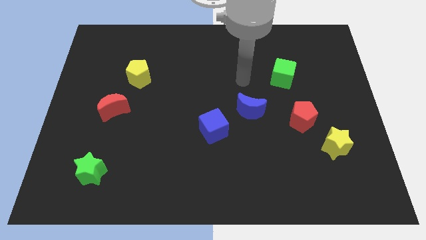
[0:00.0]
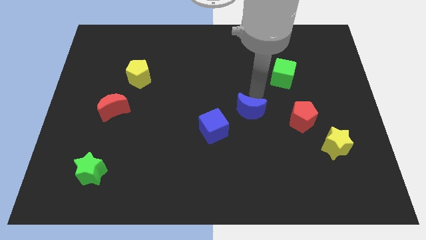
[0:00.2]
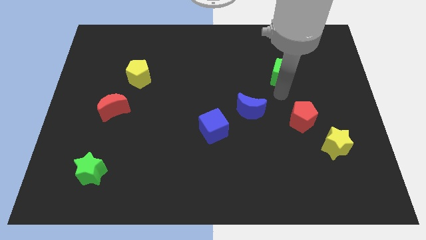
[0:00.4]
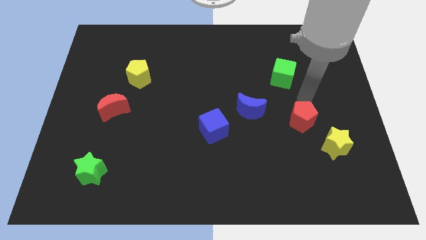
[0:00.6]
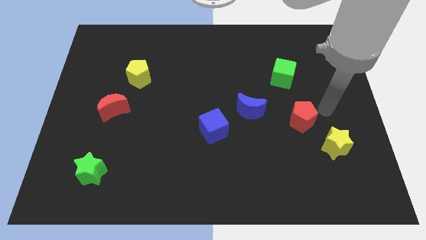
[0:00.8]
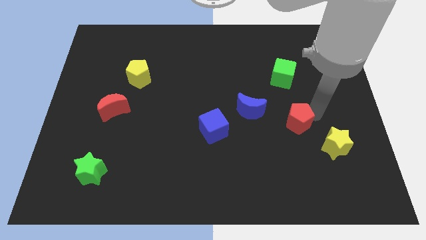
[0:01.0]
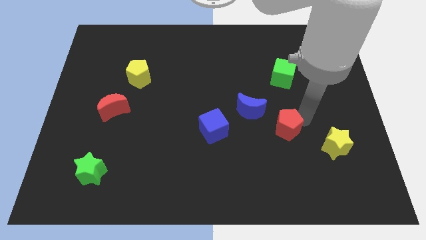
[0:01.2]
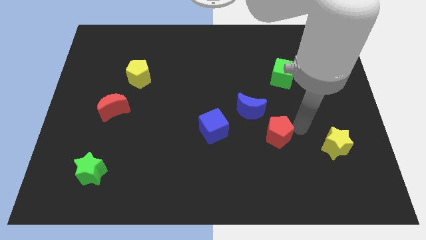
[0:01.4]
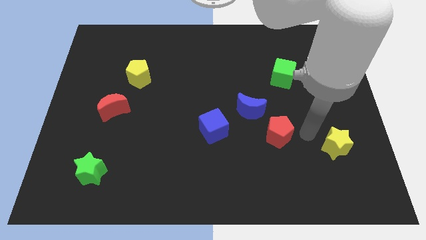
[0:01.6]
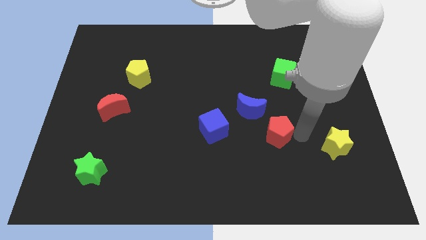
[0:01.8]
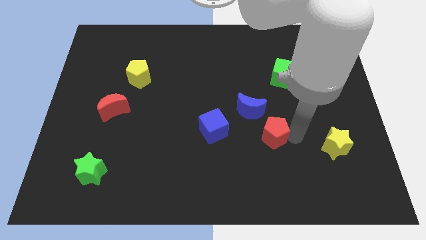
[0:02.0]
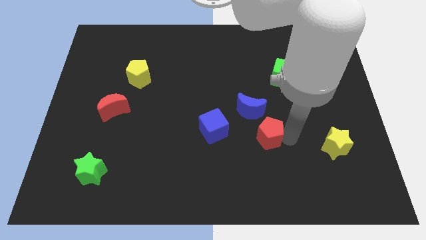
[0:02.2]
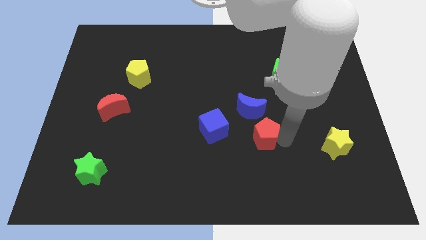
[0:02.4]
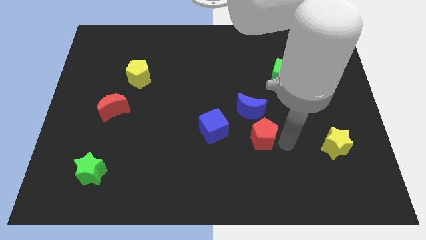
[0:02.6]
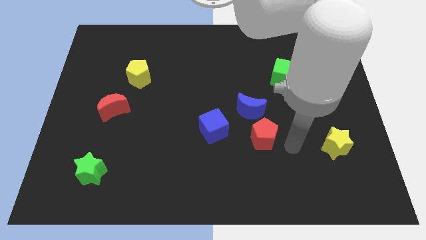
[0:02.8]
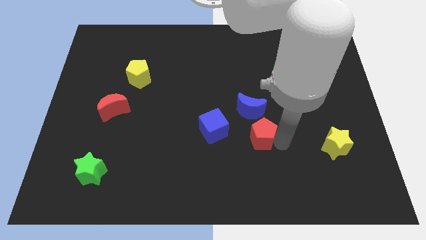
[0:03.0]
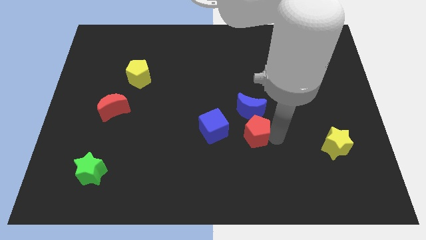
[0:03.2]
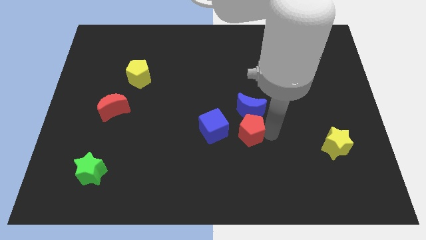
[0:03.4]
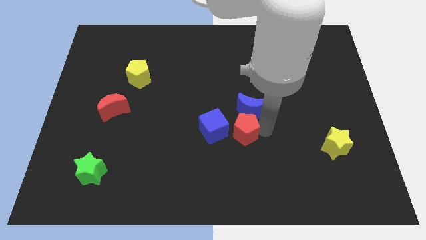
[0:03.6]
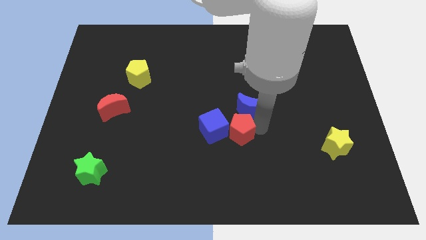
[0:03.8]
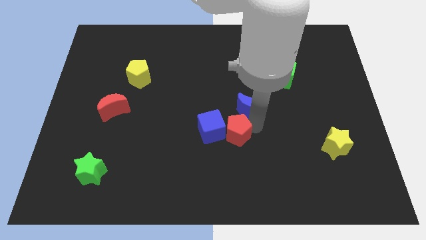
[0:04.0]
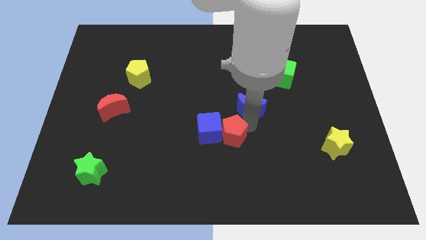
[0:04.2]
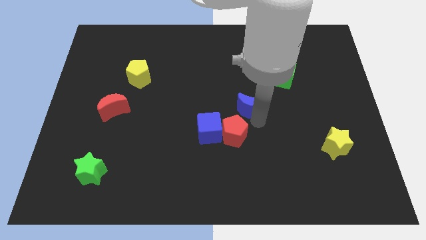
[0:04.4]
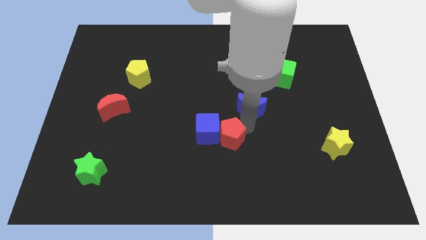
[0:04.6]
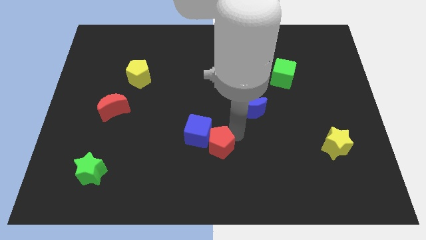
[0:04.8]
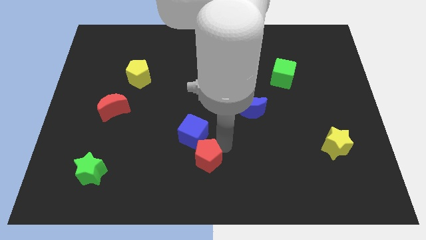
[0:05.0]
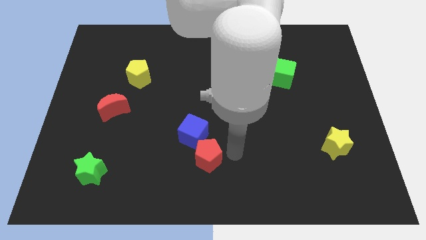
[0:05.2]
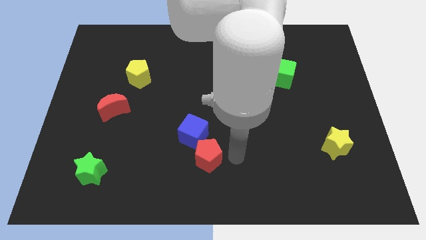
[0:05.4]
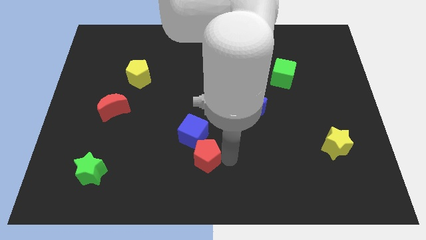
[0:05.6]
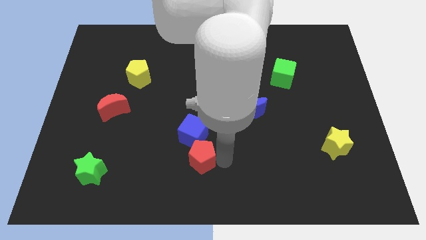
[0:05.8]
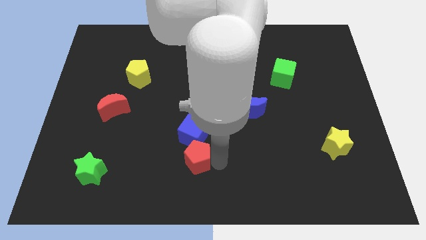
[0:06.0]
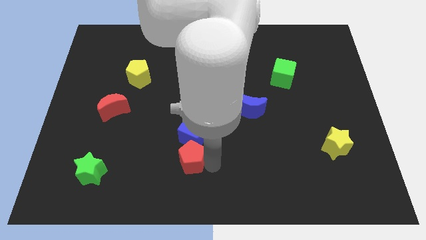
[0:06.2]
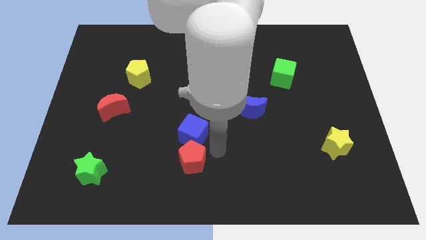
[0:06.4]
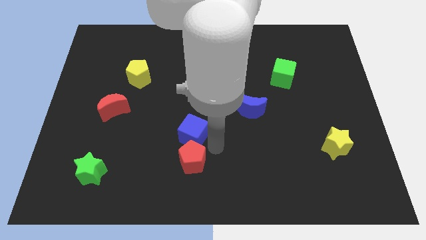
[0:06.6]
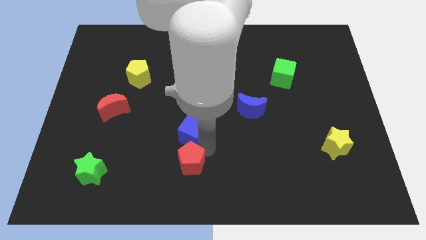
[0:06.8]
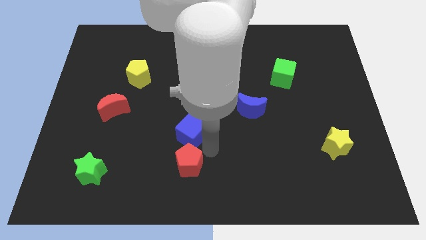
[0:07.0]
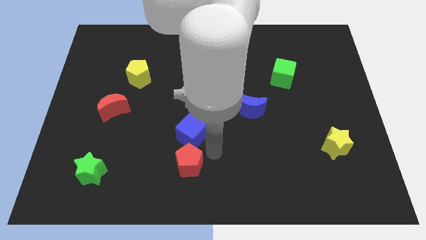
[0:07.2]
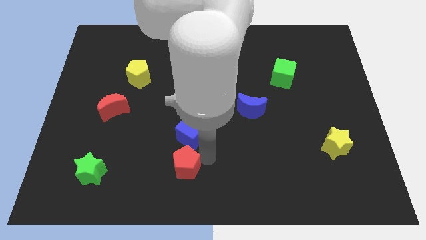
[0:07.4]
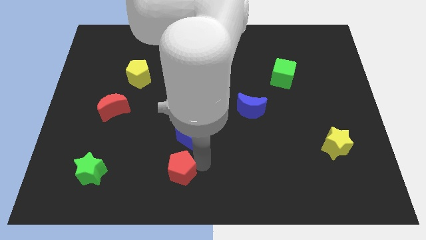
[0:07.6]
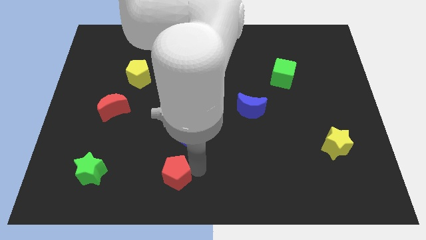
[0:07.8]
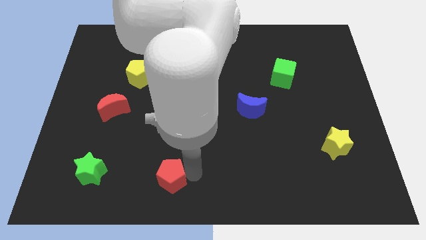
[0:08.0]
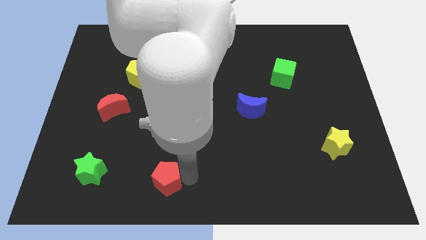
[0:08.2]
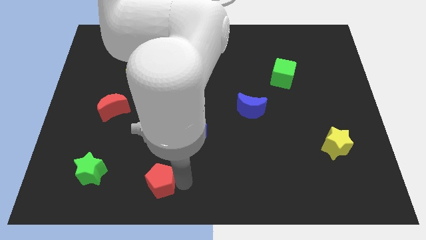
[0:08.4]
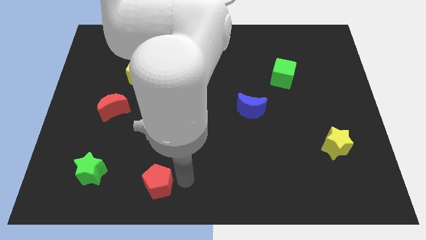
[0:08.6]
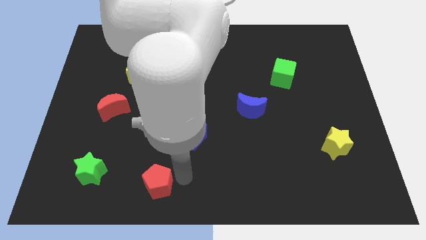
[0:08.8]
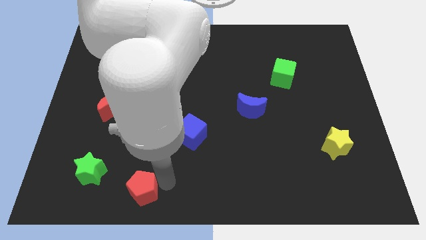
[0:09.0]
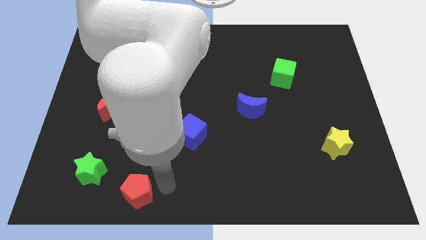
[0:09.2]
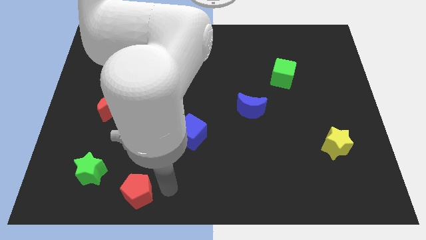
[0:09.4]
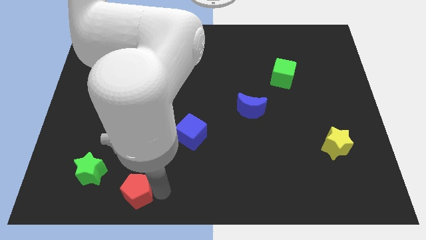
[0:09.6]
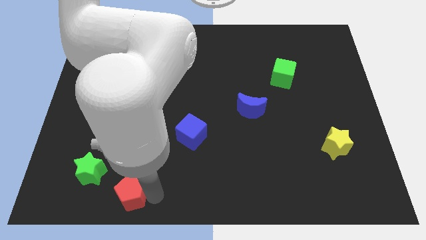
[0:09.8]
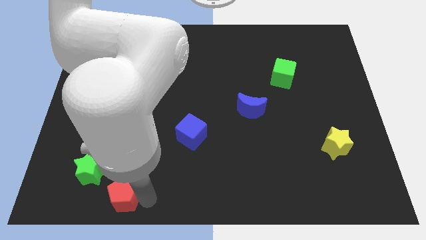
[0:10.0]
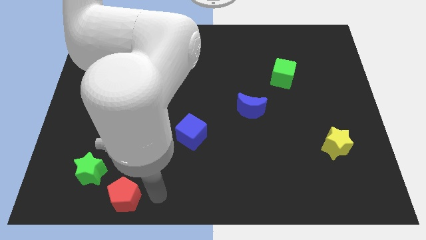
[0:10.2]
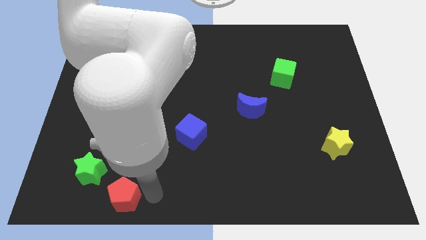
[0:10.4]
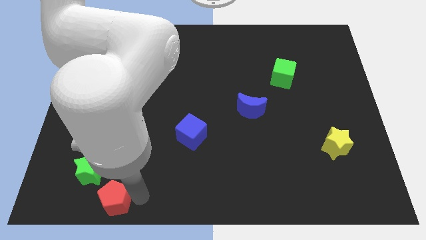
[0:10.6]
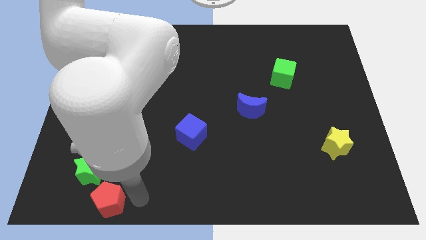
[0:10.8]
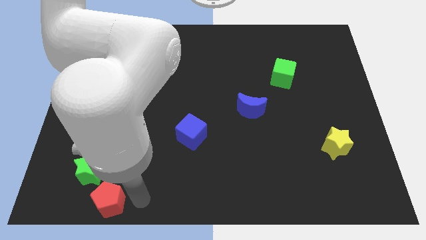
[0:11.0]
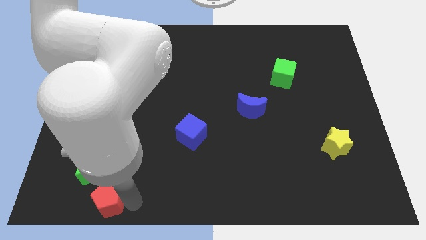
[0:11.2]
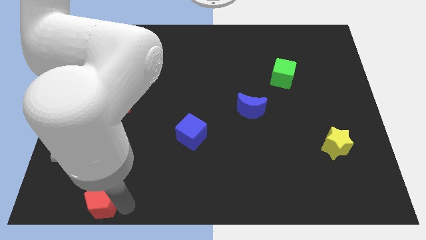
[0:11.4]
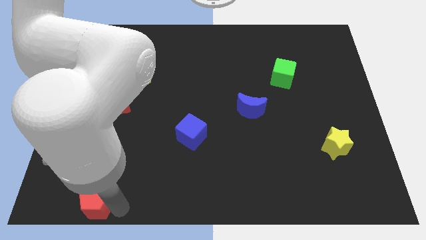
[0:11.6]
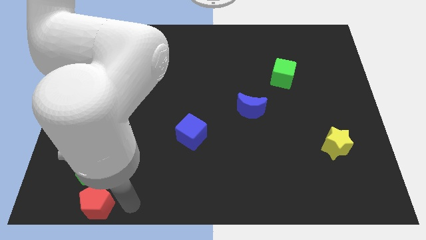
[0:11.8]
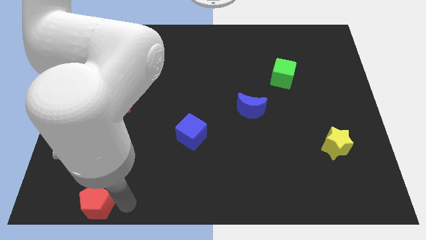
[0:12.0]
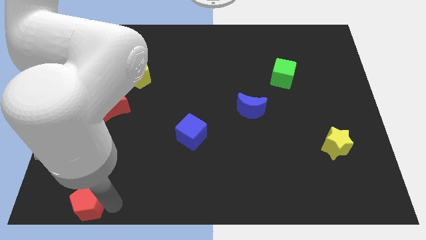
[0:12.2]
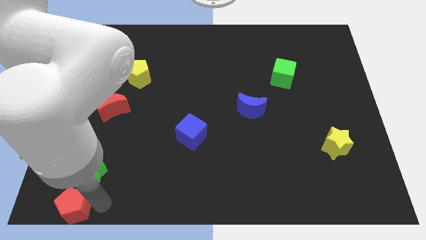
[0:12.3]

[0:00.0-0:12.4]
move the red pentagon to the bottom left corner
